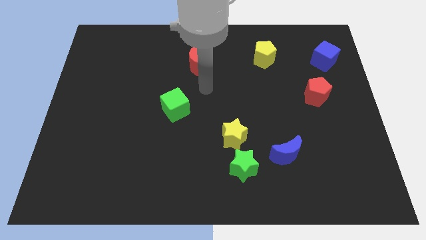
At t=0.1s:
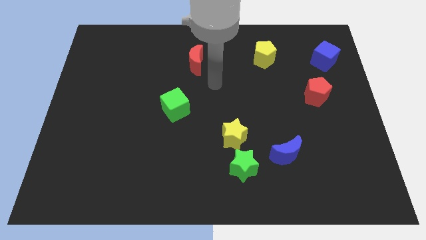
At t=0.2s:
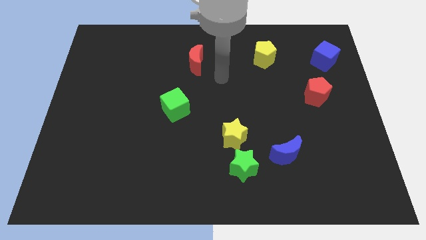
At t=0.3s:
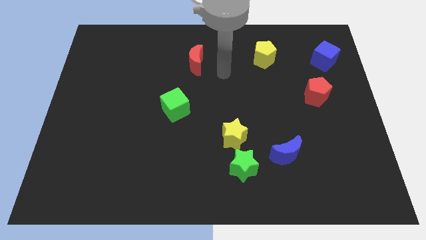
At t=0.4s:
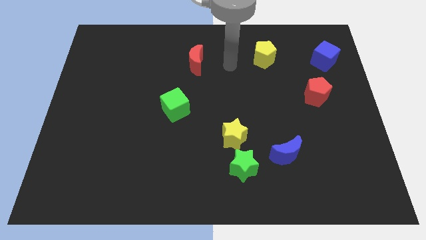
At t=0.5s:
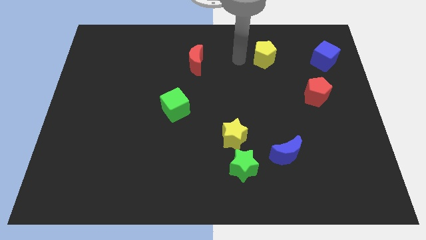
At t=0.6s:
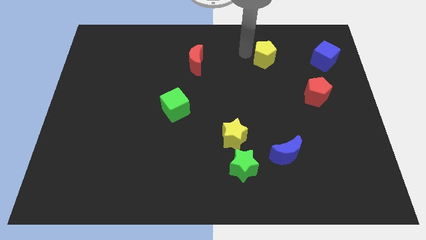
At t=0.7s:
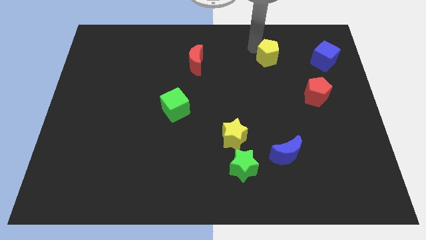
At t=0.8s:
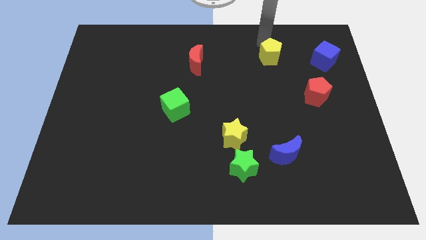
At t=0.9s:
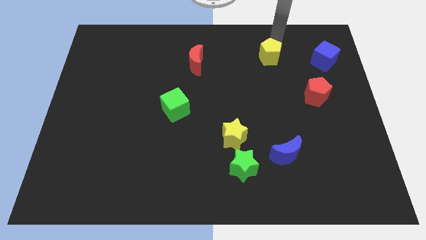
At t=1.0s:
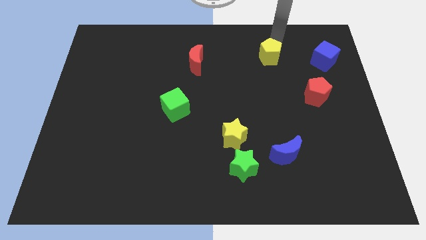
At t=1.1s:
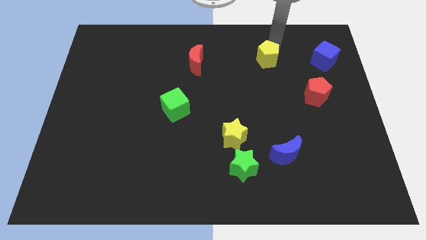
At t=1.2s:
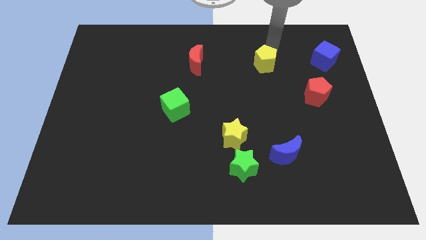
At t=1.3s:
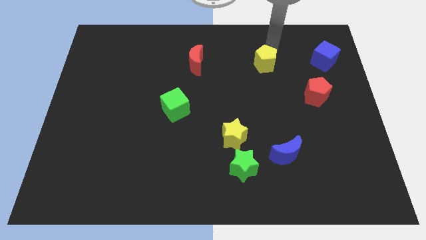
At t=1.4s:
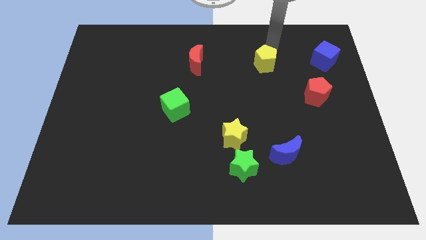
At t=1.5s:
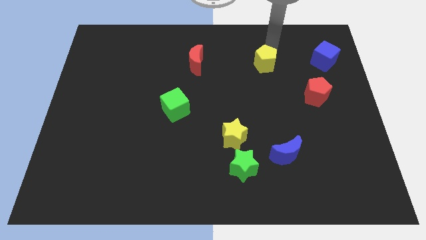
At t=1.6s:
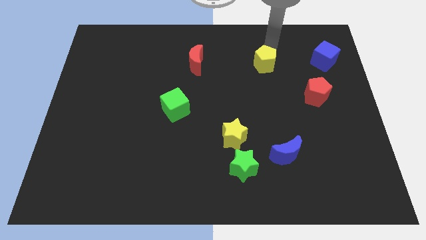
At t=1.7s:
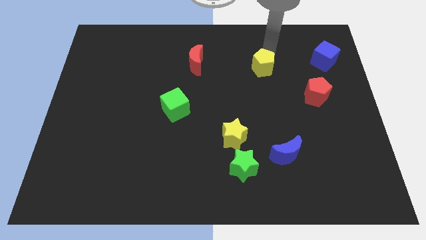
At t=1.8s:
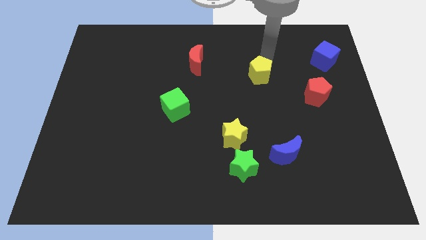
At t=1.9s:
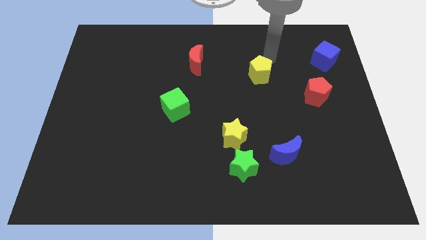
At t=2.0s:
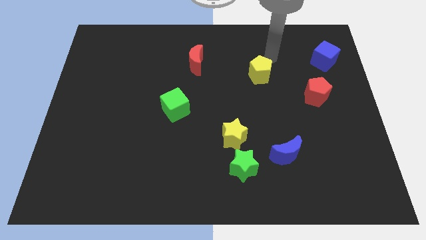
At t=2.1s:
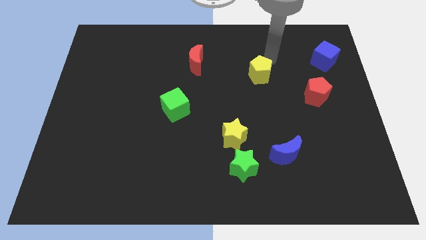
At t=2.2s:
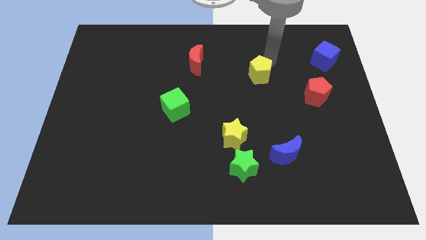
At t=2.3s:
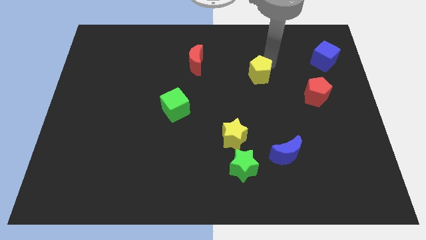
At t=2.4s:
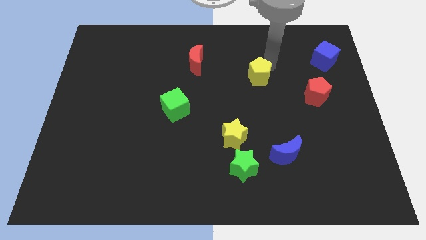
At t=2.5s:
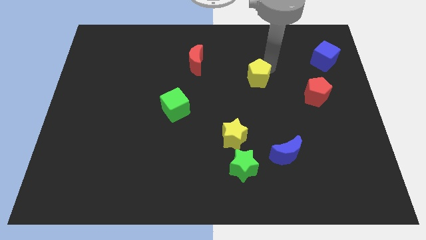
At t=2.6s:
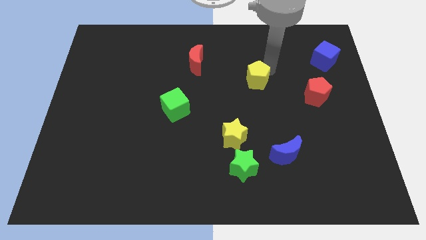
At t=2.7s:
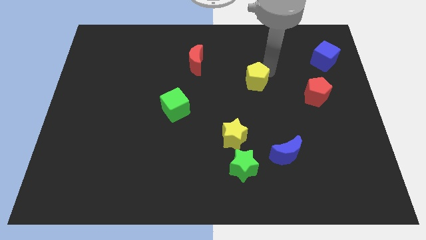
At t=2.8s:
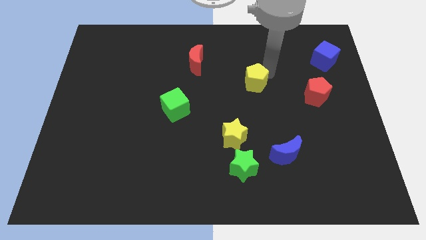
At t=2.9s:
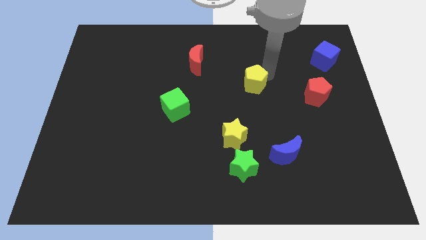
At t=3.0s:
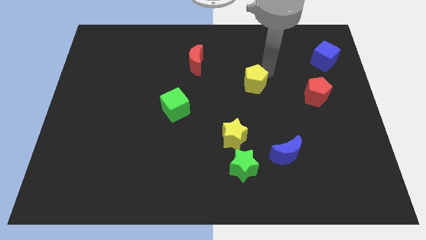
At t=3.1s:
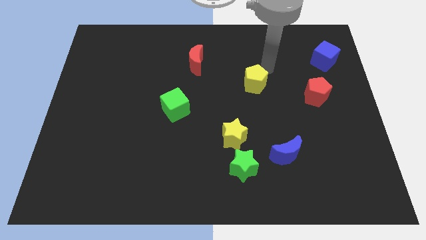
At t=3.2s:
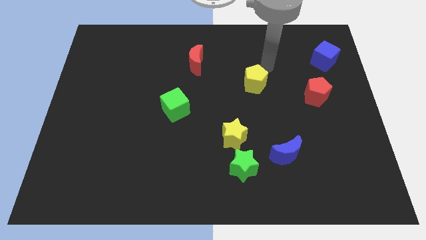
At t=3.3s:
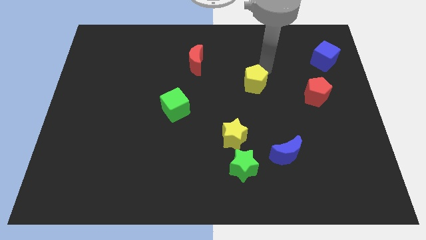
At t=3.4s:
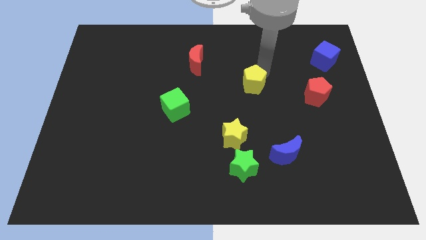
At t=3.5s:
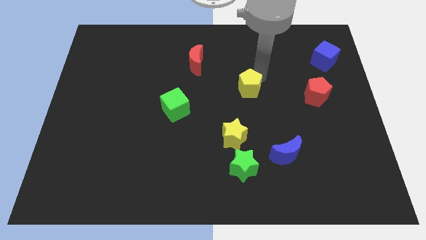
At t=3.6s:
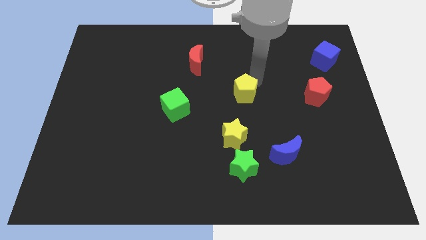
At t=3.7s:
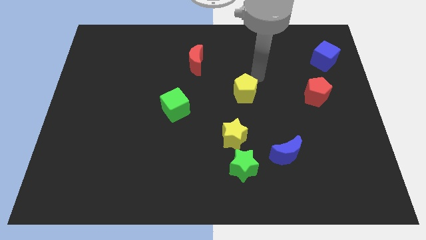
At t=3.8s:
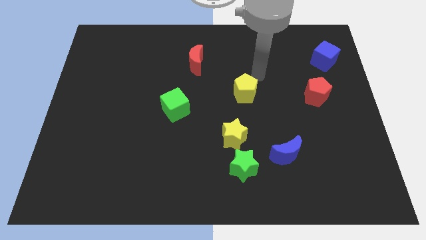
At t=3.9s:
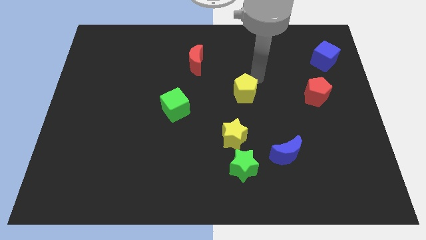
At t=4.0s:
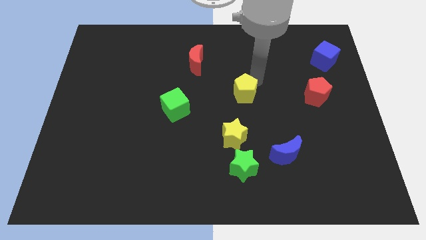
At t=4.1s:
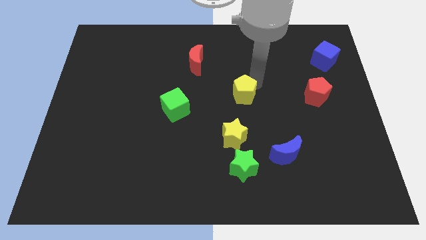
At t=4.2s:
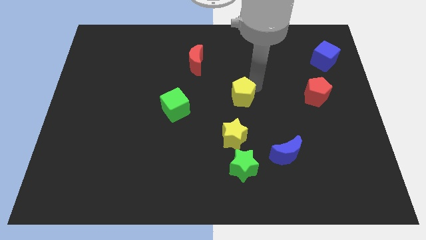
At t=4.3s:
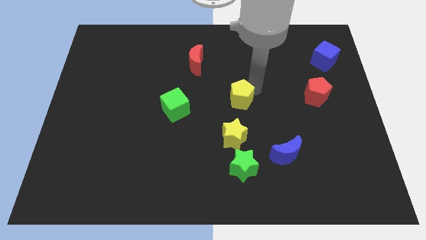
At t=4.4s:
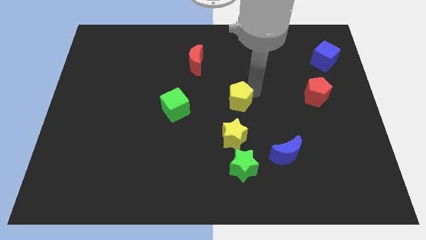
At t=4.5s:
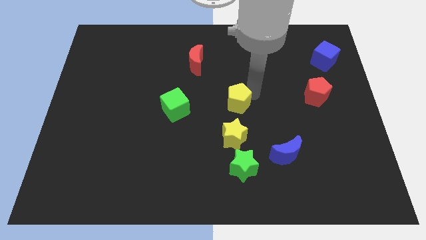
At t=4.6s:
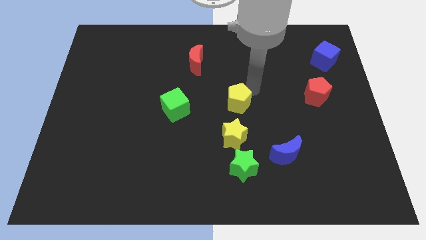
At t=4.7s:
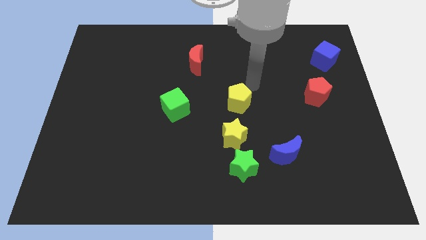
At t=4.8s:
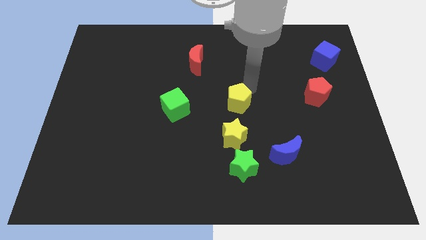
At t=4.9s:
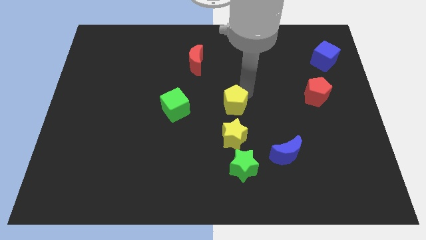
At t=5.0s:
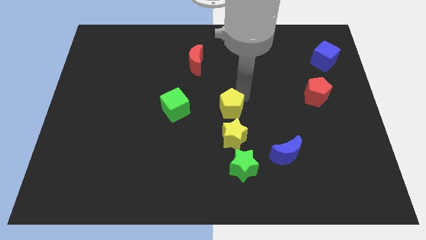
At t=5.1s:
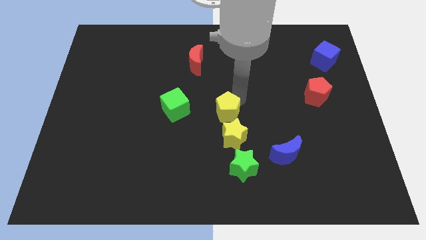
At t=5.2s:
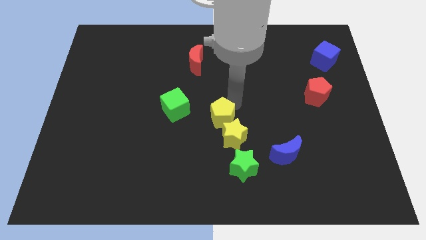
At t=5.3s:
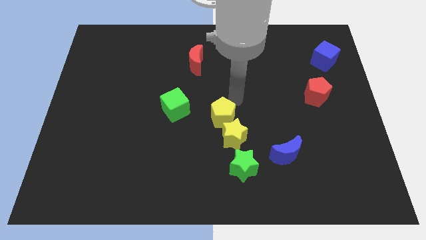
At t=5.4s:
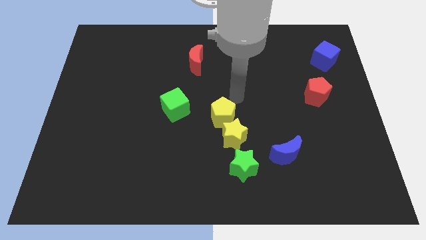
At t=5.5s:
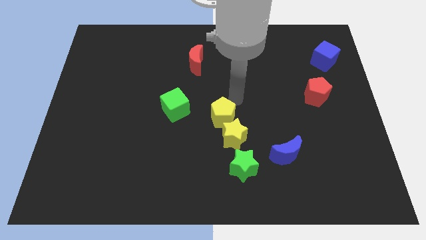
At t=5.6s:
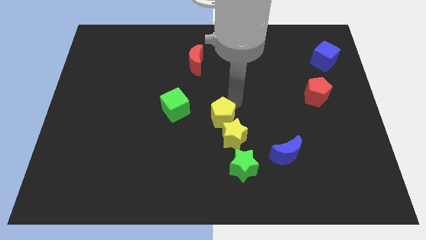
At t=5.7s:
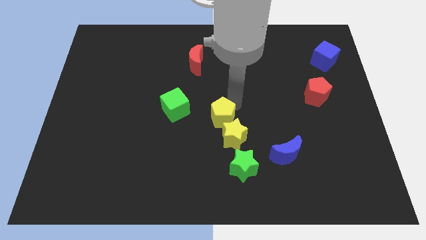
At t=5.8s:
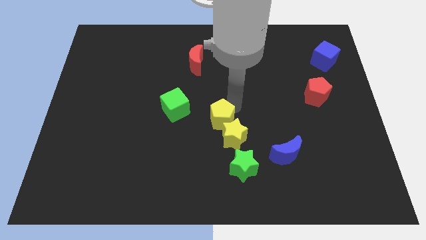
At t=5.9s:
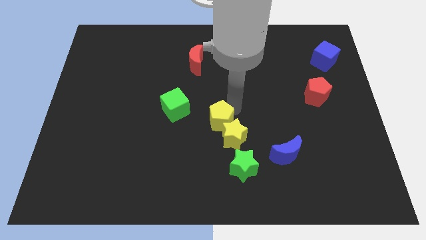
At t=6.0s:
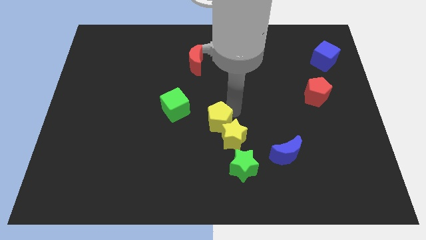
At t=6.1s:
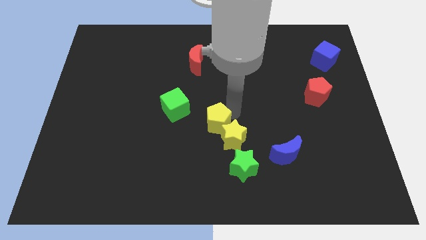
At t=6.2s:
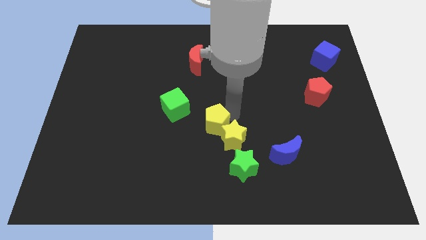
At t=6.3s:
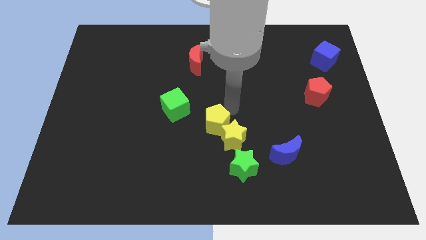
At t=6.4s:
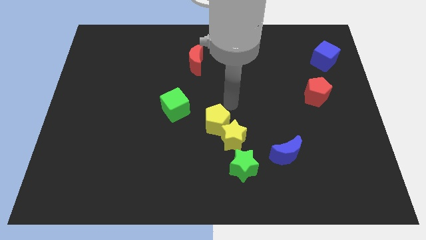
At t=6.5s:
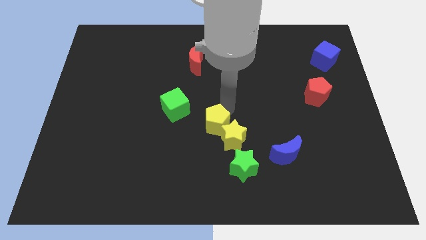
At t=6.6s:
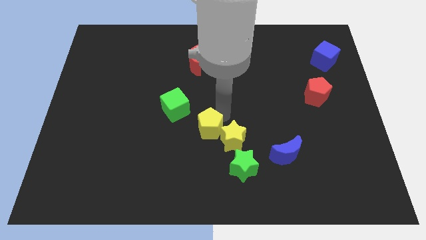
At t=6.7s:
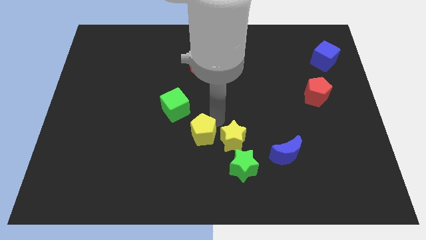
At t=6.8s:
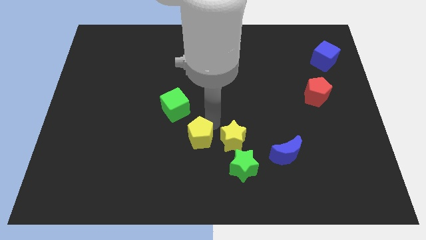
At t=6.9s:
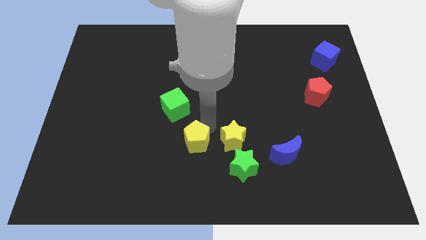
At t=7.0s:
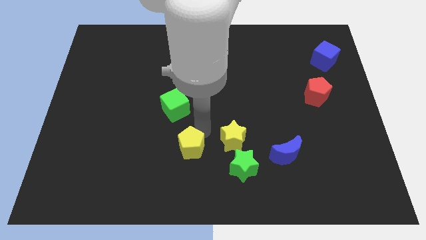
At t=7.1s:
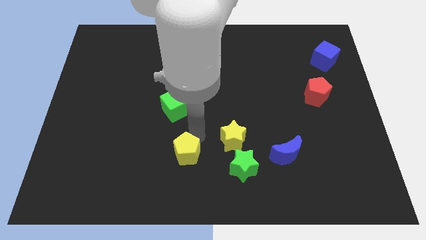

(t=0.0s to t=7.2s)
slide the yellow pentagon left of the green star
